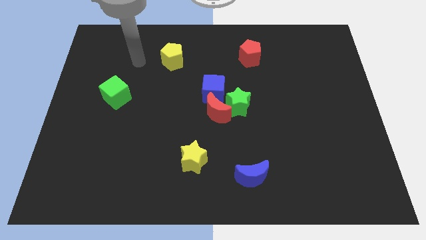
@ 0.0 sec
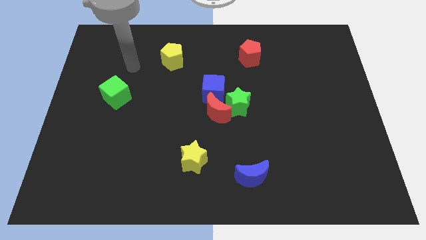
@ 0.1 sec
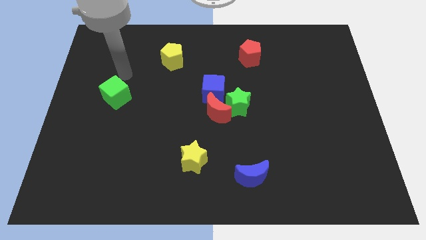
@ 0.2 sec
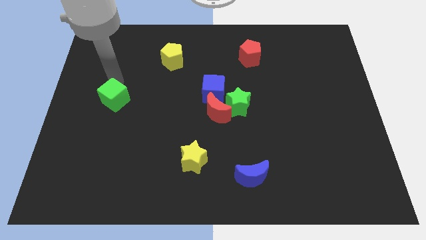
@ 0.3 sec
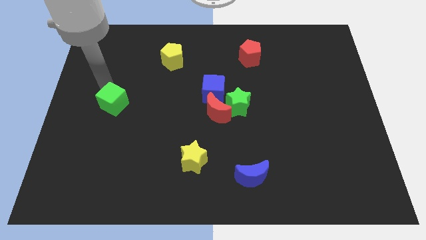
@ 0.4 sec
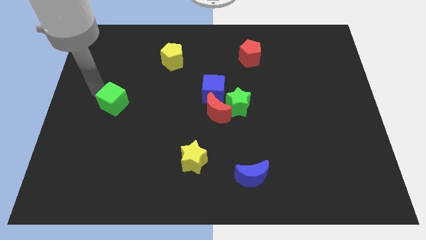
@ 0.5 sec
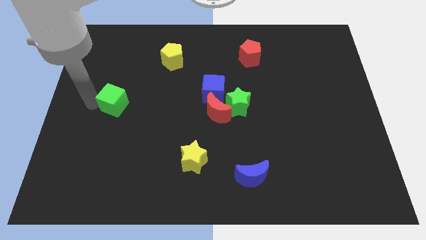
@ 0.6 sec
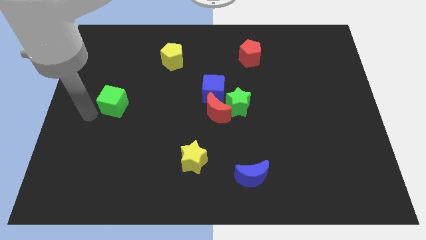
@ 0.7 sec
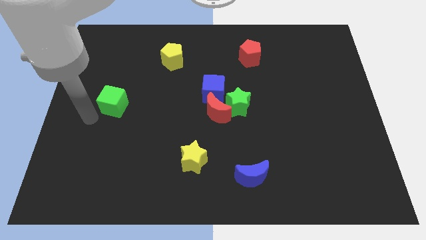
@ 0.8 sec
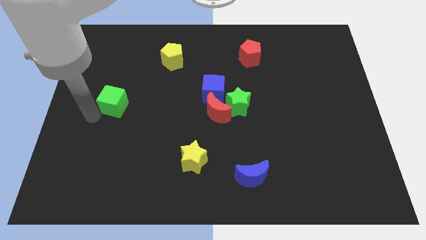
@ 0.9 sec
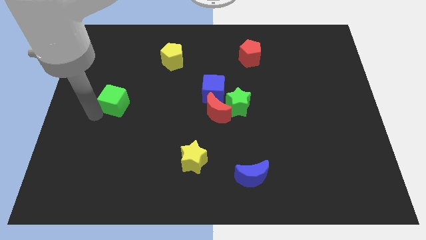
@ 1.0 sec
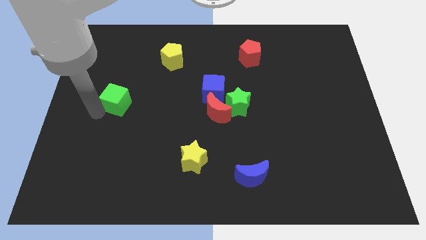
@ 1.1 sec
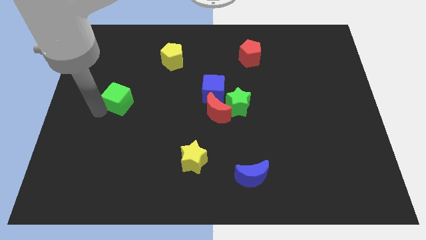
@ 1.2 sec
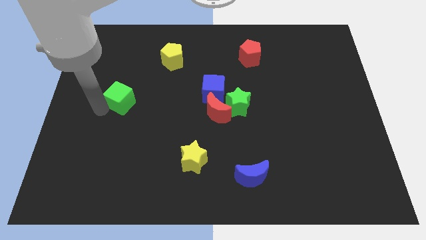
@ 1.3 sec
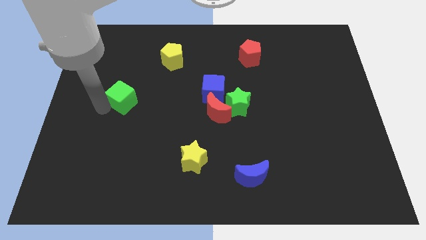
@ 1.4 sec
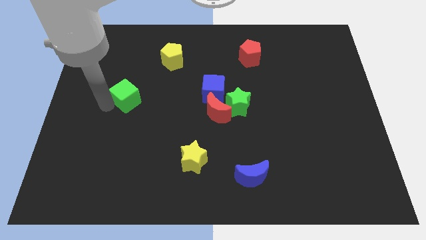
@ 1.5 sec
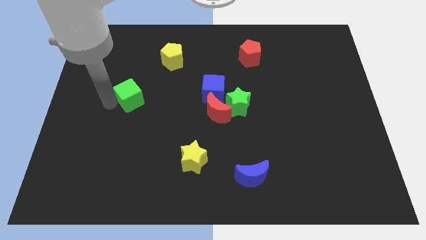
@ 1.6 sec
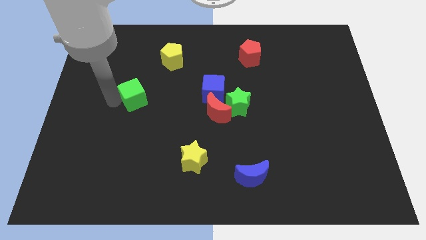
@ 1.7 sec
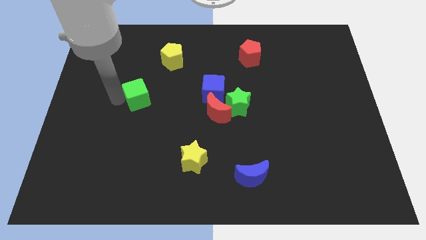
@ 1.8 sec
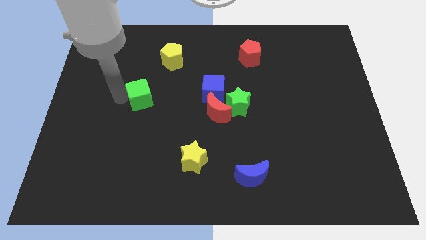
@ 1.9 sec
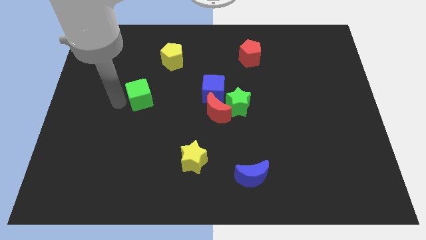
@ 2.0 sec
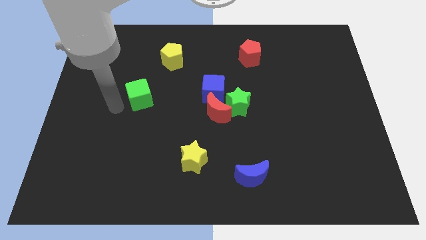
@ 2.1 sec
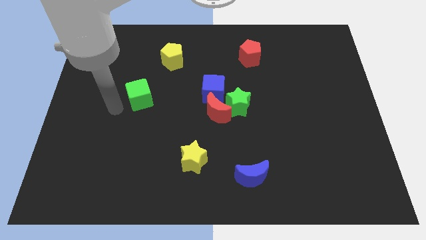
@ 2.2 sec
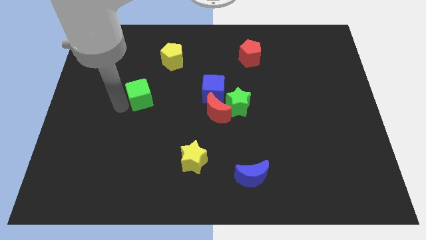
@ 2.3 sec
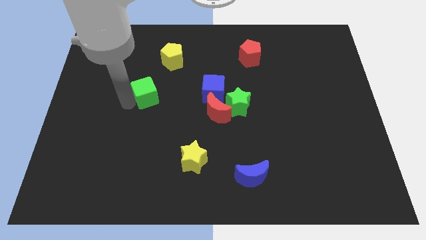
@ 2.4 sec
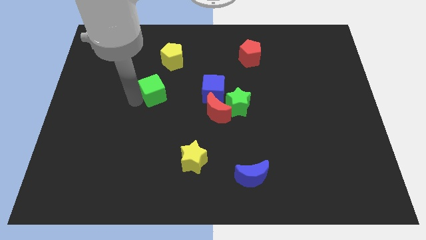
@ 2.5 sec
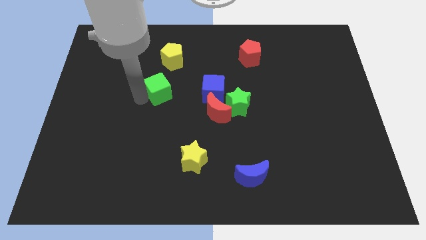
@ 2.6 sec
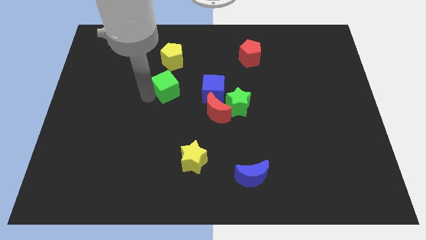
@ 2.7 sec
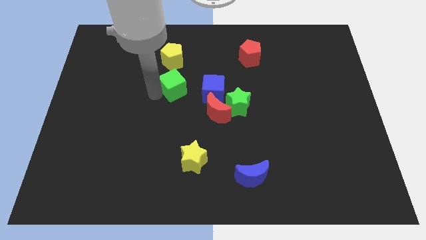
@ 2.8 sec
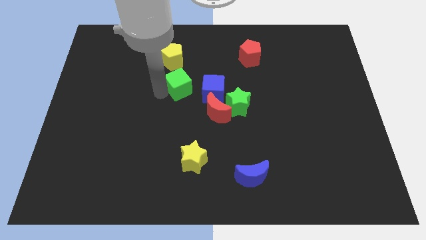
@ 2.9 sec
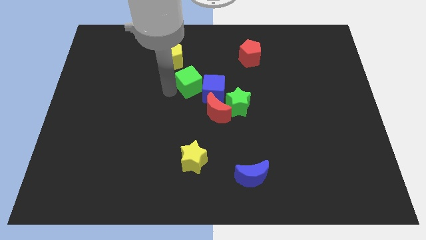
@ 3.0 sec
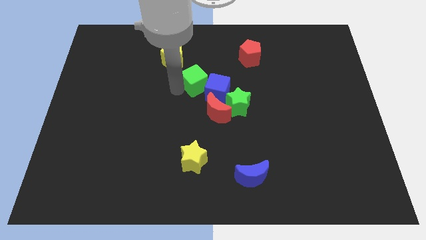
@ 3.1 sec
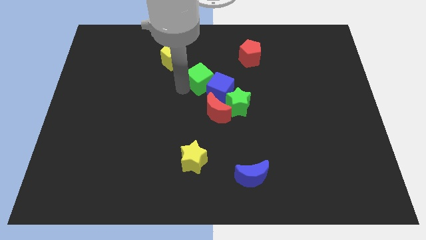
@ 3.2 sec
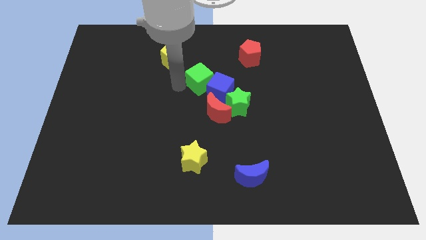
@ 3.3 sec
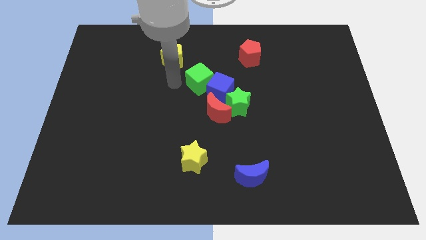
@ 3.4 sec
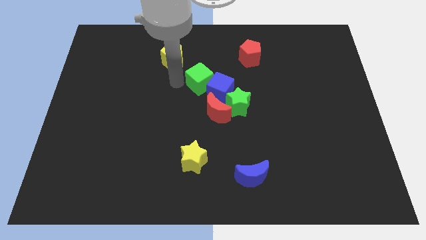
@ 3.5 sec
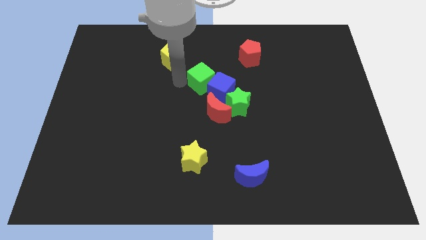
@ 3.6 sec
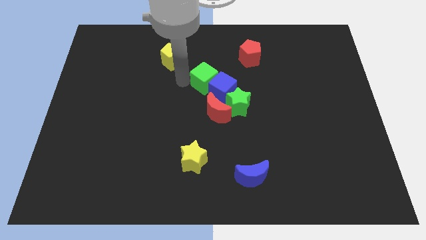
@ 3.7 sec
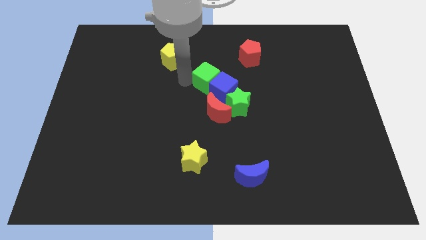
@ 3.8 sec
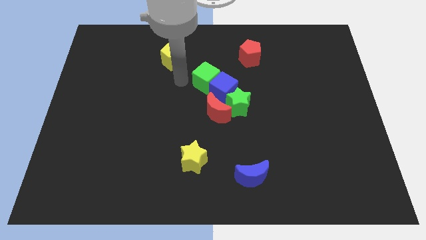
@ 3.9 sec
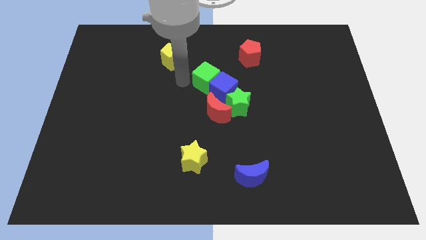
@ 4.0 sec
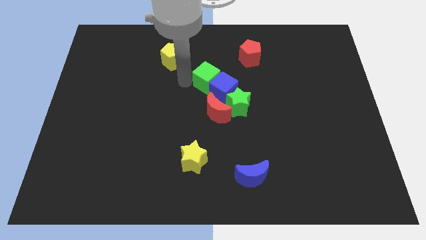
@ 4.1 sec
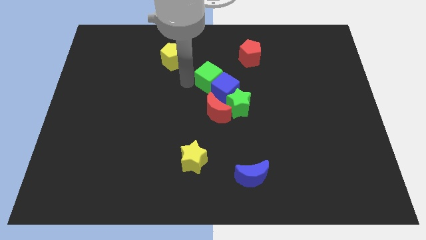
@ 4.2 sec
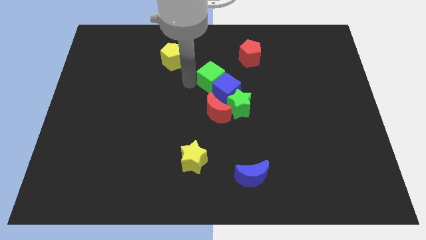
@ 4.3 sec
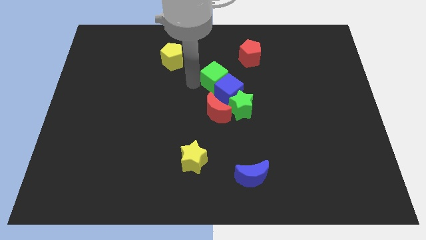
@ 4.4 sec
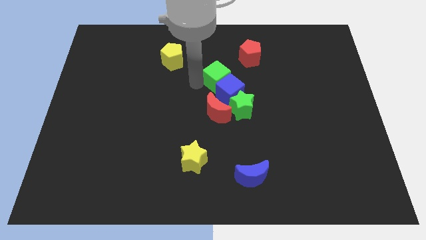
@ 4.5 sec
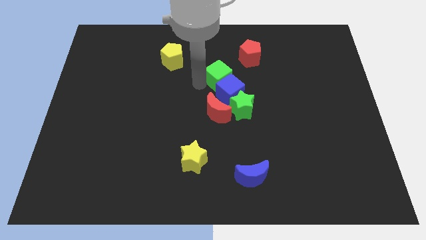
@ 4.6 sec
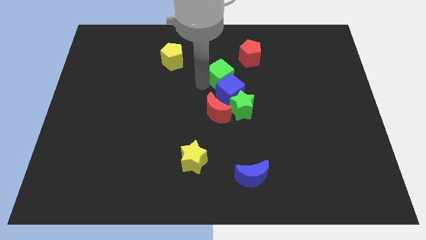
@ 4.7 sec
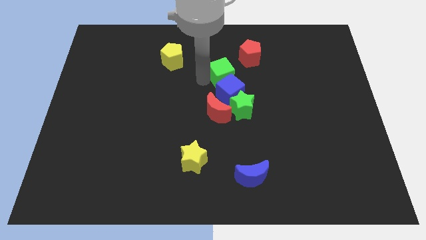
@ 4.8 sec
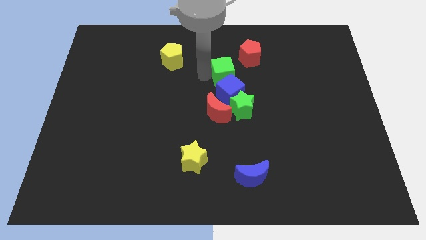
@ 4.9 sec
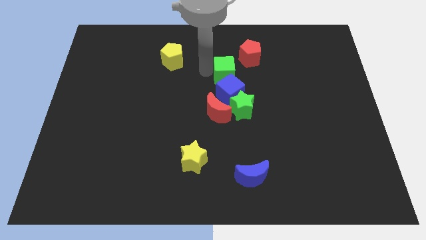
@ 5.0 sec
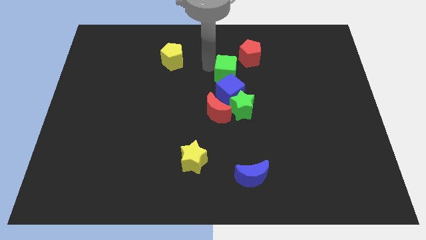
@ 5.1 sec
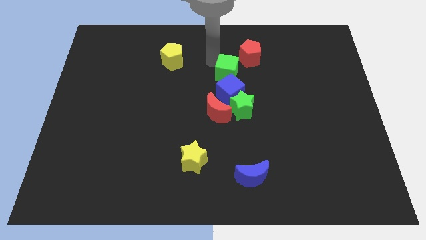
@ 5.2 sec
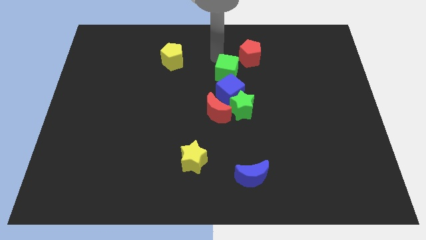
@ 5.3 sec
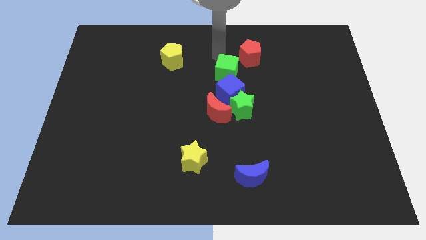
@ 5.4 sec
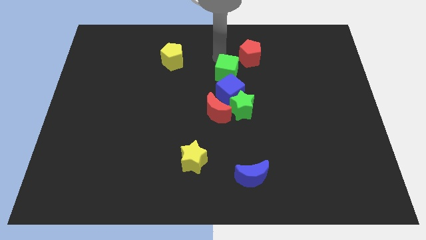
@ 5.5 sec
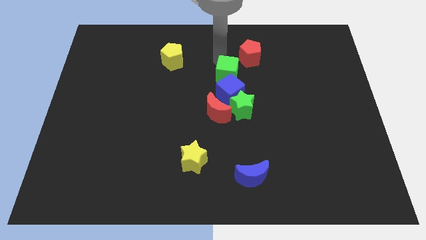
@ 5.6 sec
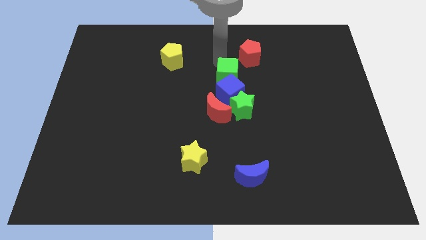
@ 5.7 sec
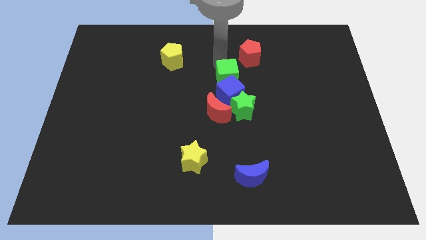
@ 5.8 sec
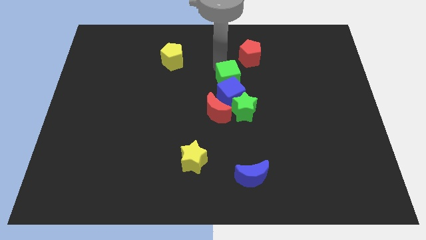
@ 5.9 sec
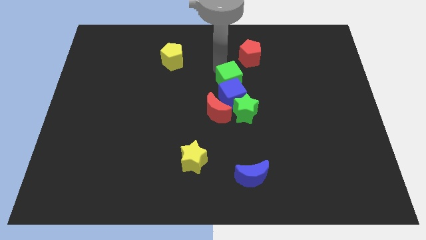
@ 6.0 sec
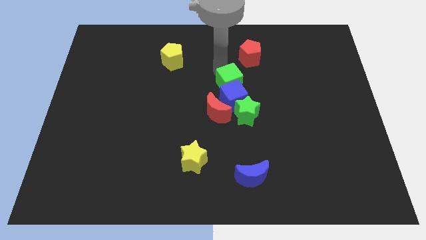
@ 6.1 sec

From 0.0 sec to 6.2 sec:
move the green cube to the top right side of the red moon

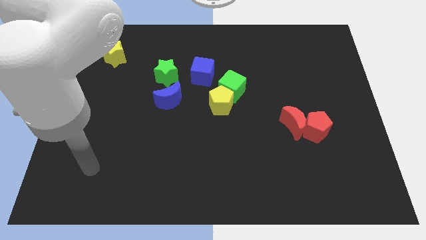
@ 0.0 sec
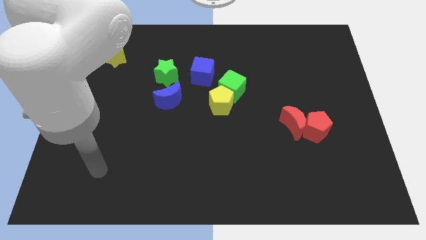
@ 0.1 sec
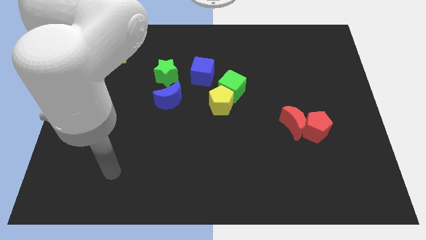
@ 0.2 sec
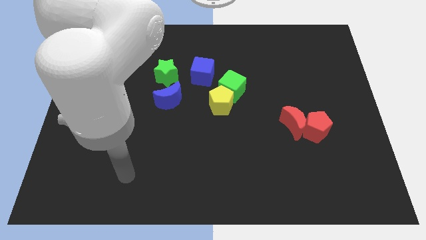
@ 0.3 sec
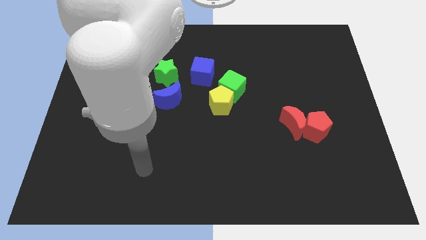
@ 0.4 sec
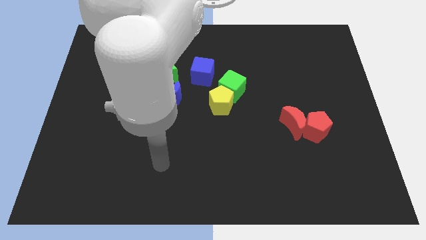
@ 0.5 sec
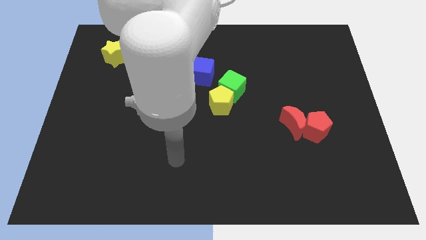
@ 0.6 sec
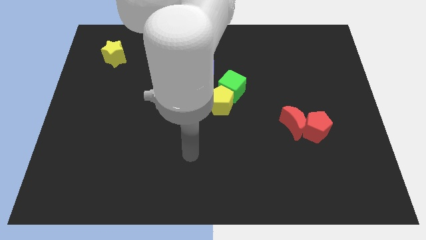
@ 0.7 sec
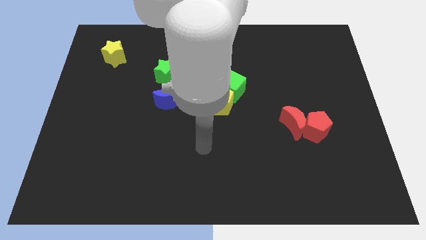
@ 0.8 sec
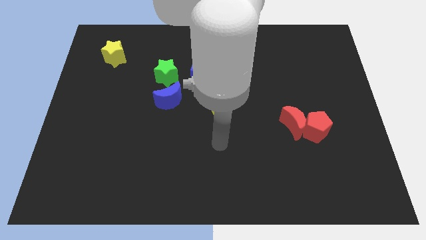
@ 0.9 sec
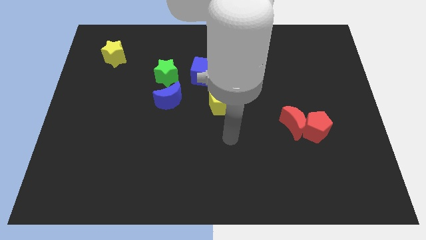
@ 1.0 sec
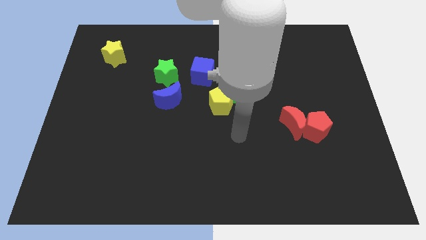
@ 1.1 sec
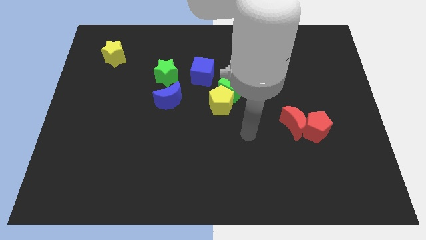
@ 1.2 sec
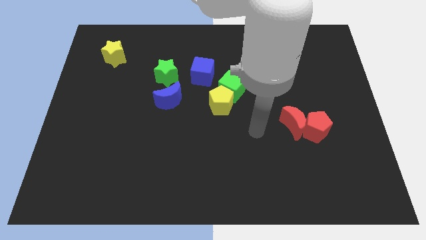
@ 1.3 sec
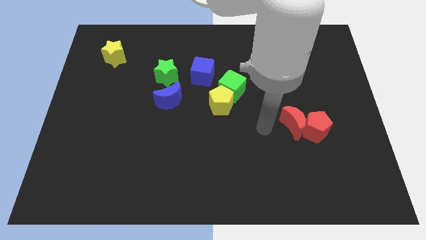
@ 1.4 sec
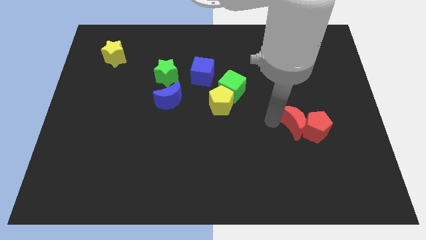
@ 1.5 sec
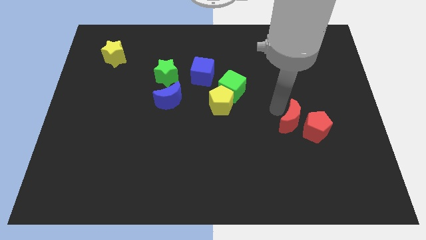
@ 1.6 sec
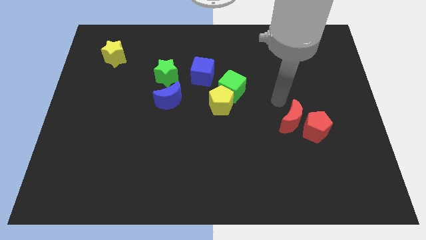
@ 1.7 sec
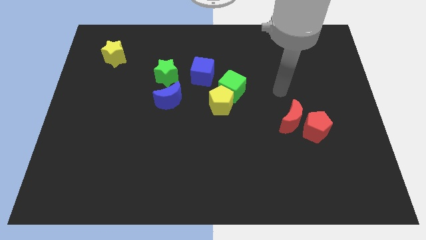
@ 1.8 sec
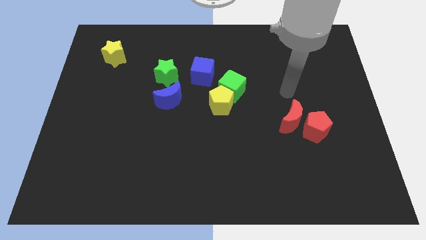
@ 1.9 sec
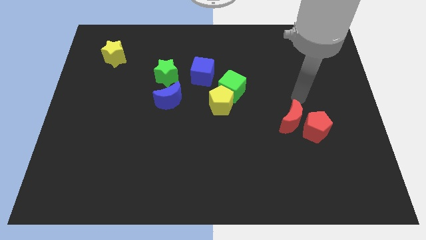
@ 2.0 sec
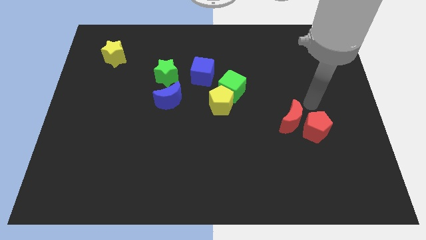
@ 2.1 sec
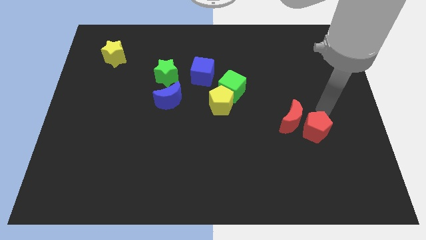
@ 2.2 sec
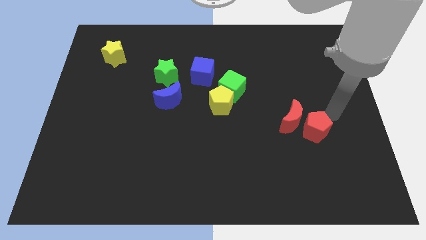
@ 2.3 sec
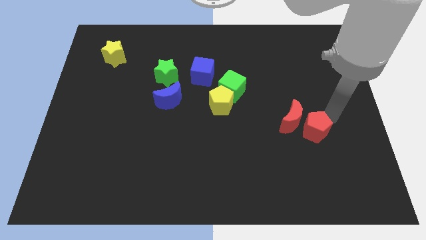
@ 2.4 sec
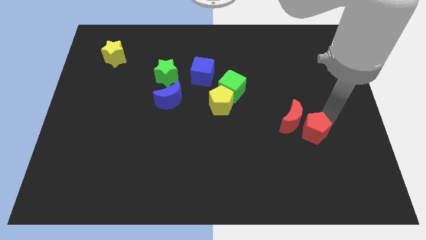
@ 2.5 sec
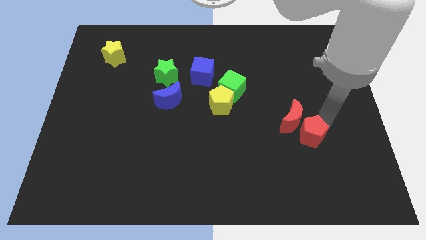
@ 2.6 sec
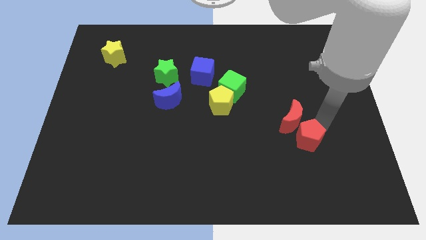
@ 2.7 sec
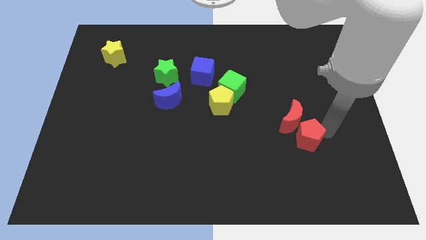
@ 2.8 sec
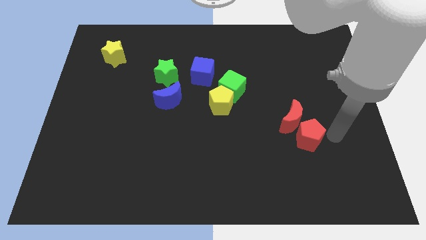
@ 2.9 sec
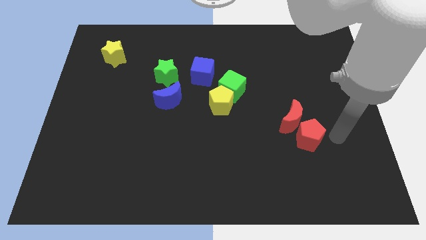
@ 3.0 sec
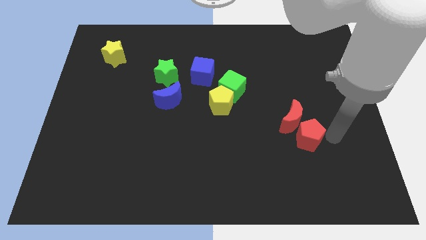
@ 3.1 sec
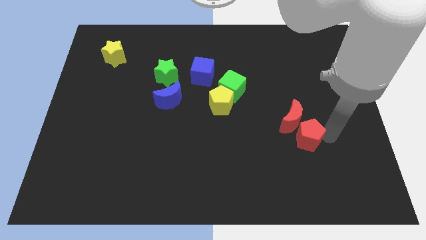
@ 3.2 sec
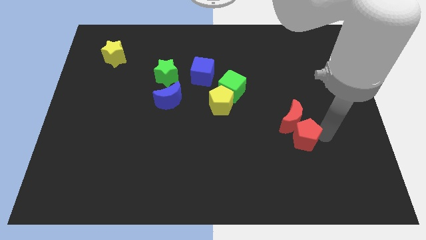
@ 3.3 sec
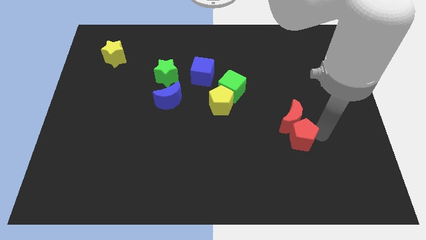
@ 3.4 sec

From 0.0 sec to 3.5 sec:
move the red pentagon to the bottom left of the red moon
